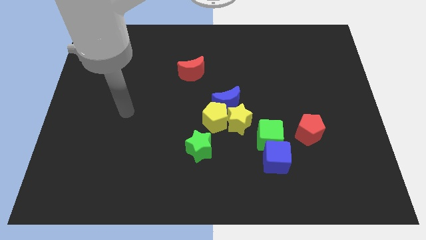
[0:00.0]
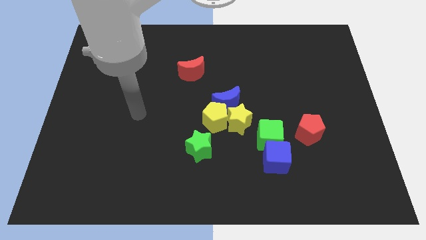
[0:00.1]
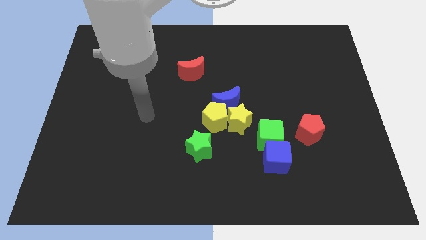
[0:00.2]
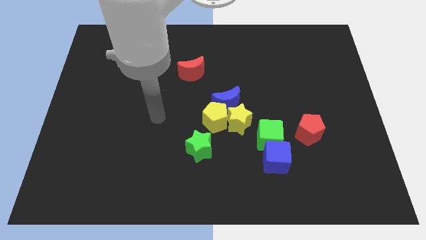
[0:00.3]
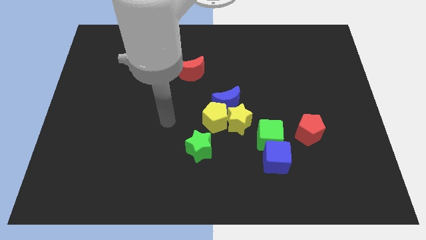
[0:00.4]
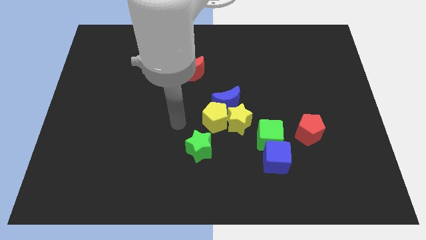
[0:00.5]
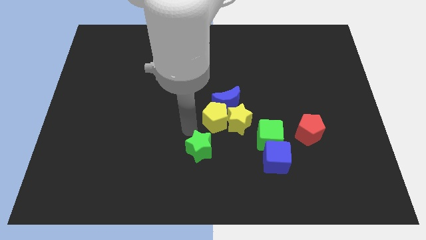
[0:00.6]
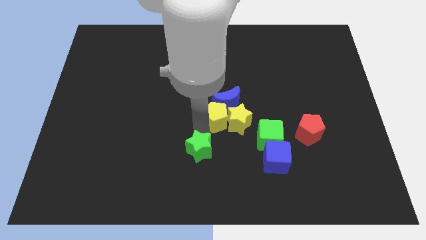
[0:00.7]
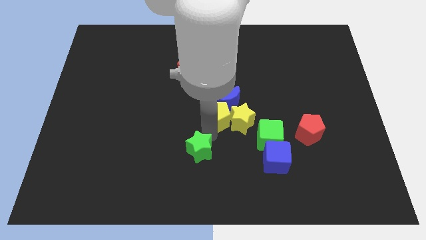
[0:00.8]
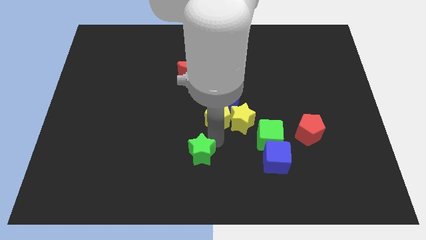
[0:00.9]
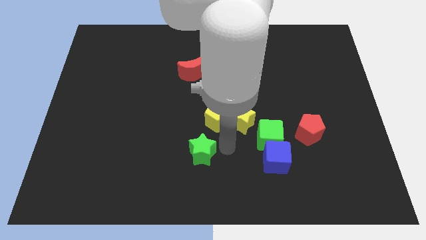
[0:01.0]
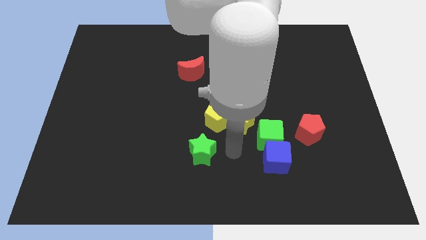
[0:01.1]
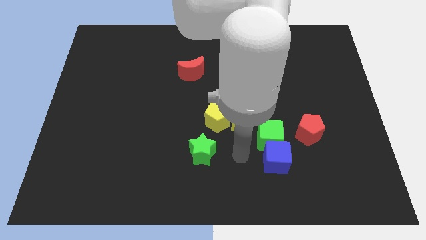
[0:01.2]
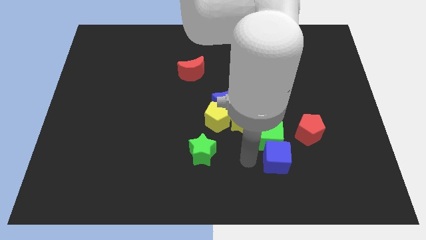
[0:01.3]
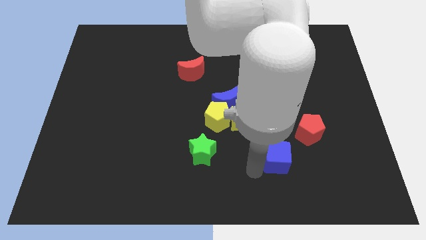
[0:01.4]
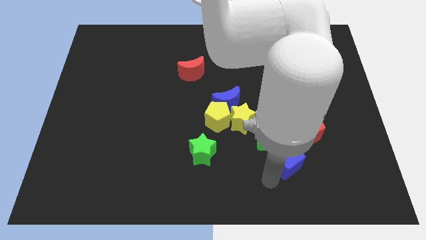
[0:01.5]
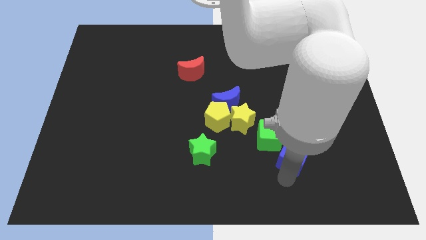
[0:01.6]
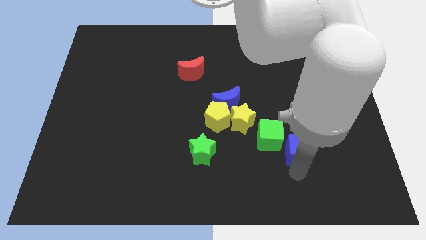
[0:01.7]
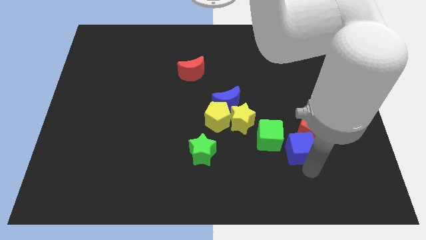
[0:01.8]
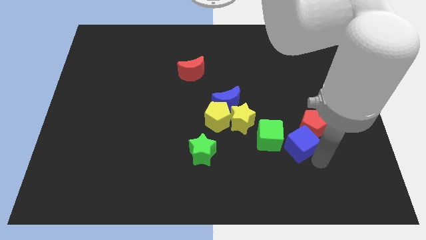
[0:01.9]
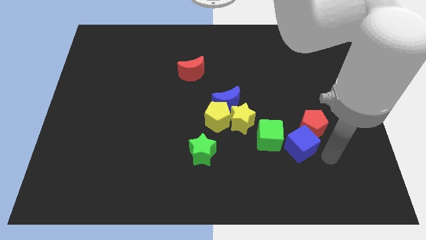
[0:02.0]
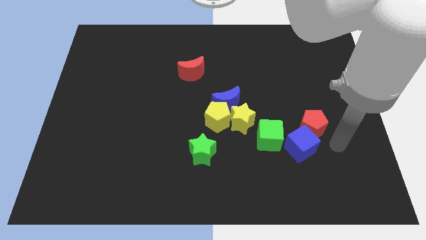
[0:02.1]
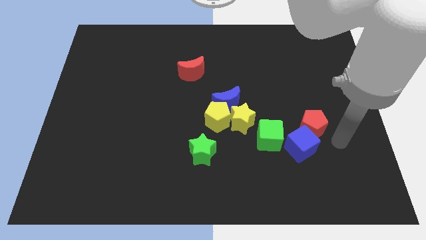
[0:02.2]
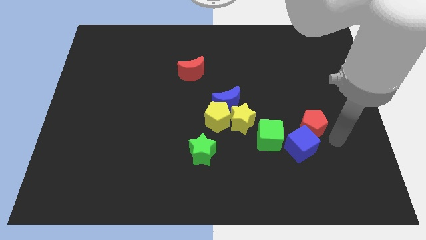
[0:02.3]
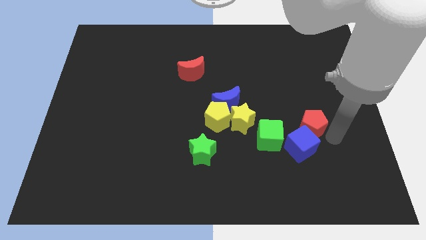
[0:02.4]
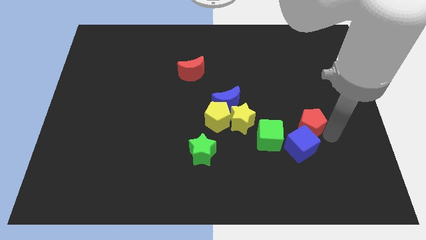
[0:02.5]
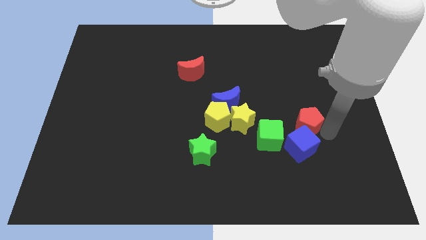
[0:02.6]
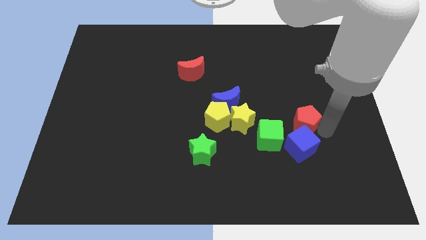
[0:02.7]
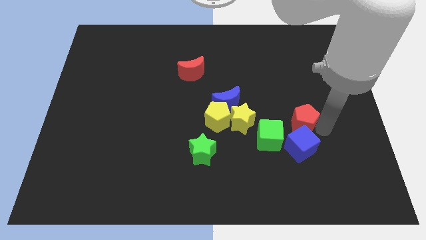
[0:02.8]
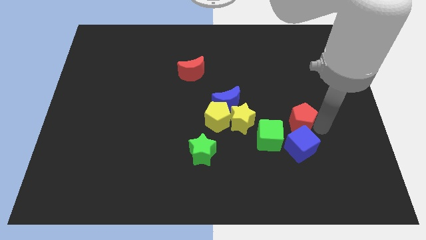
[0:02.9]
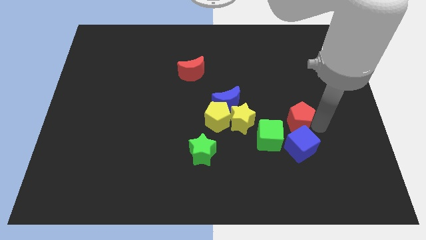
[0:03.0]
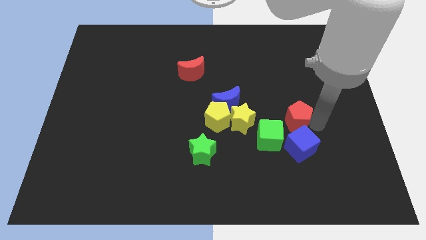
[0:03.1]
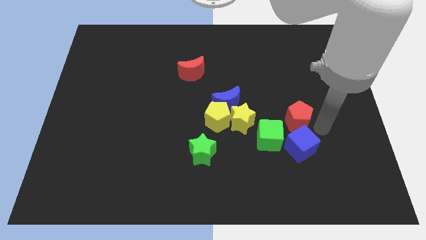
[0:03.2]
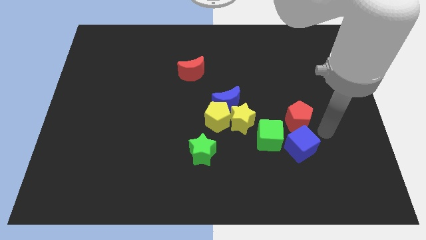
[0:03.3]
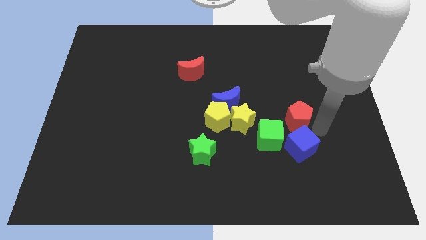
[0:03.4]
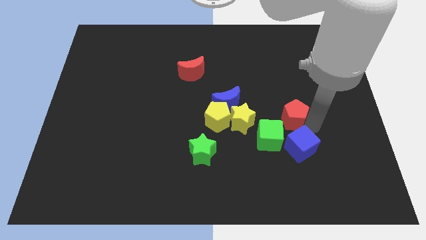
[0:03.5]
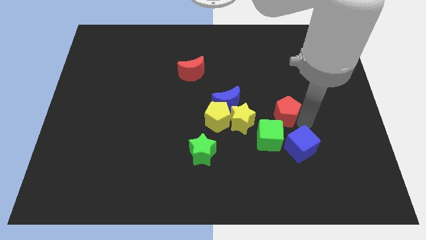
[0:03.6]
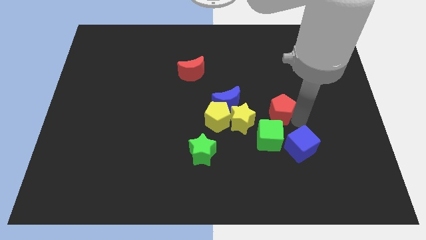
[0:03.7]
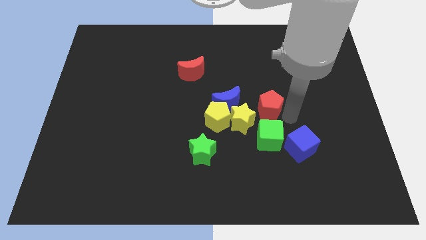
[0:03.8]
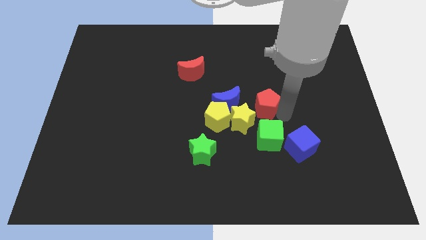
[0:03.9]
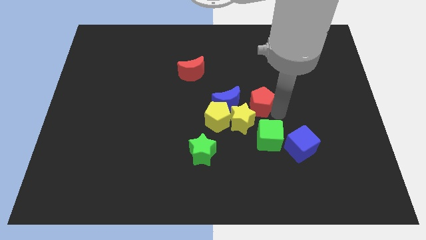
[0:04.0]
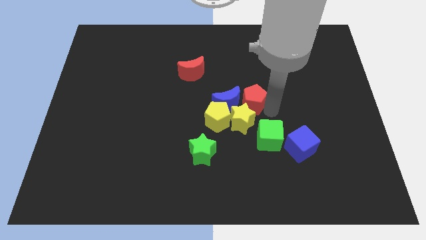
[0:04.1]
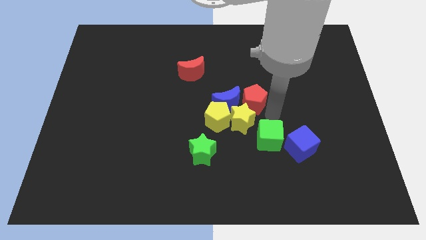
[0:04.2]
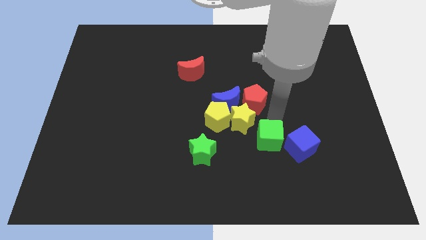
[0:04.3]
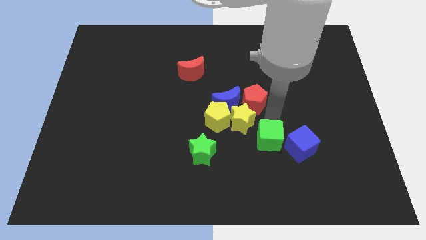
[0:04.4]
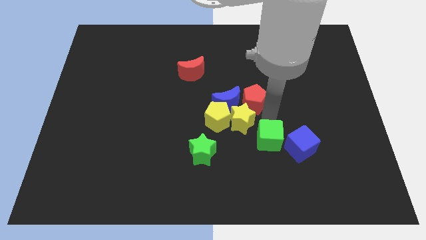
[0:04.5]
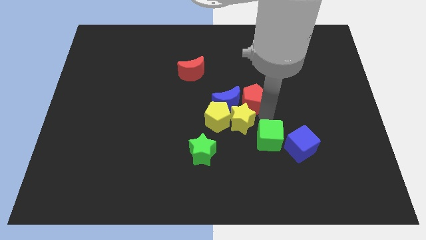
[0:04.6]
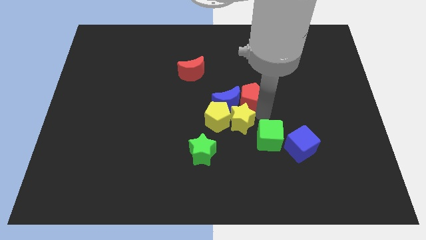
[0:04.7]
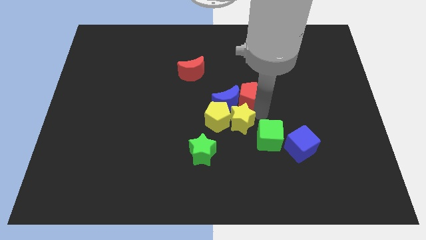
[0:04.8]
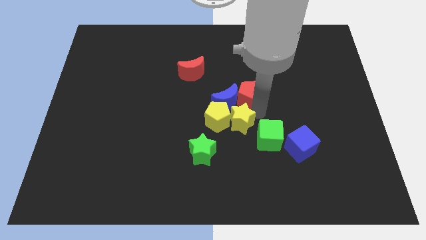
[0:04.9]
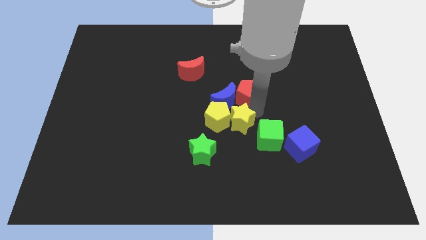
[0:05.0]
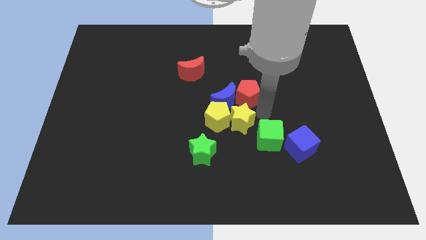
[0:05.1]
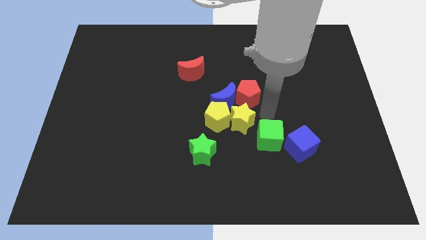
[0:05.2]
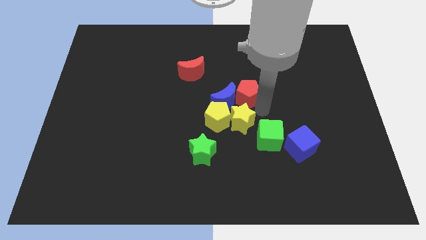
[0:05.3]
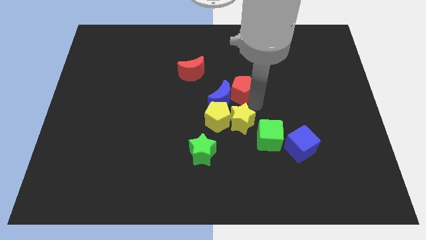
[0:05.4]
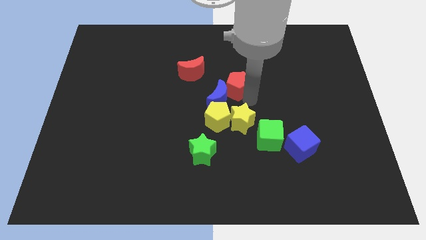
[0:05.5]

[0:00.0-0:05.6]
move the red pentagon up and then to the left

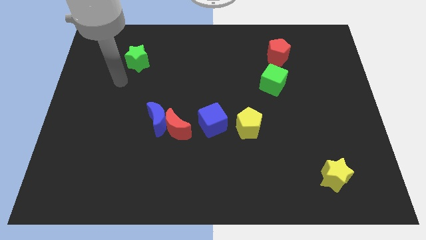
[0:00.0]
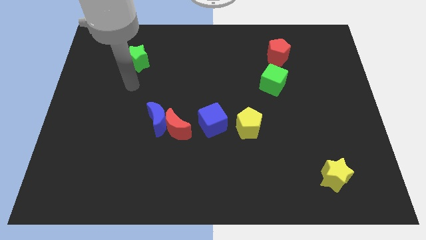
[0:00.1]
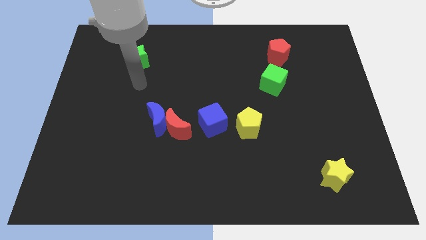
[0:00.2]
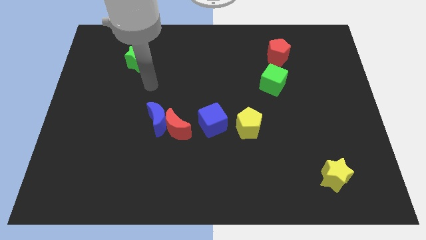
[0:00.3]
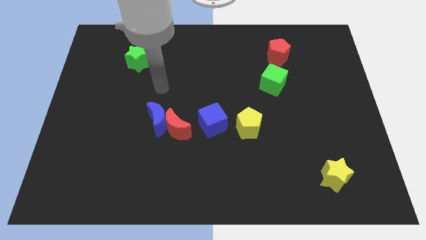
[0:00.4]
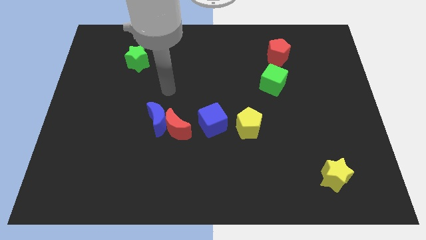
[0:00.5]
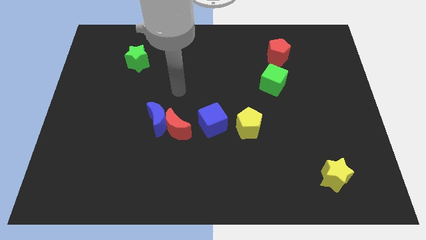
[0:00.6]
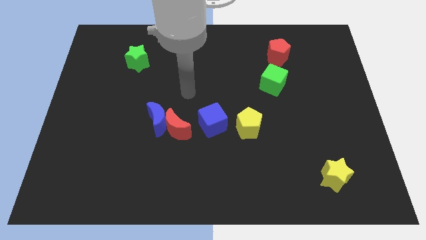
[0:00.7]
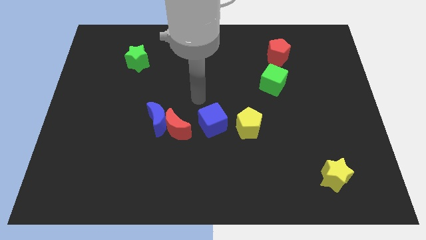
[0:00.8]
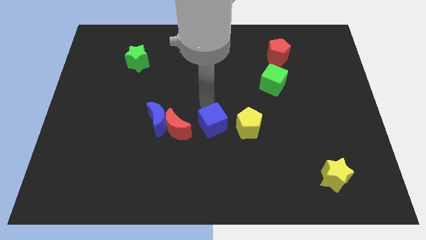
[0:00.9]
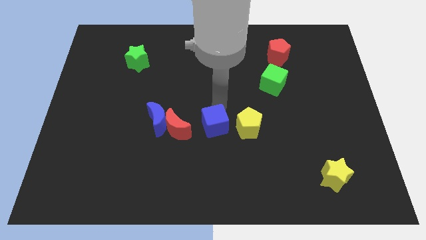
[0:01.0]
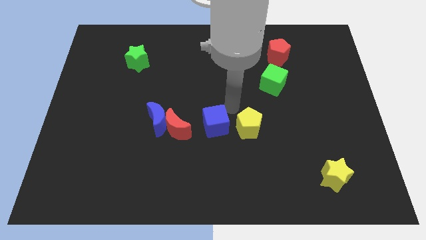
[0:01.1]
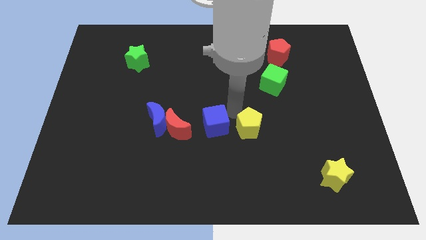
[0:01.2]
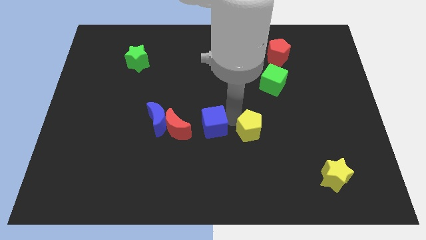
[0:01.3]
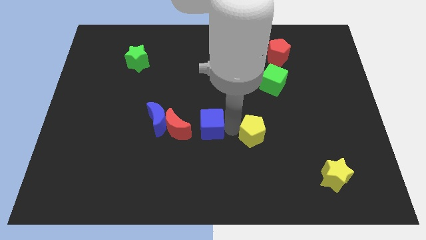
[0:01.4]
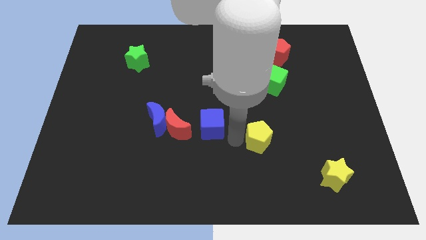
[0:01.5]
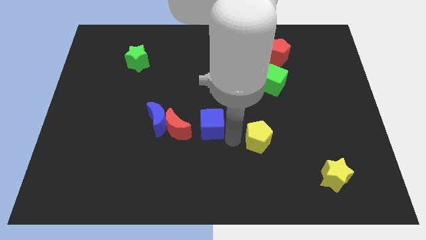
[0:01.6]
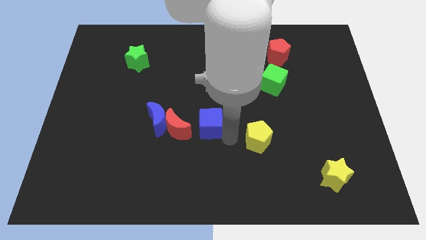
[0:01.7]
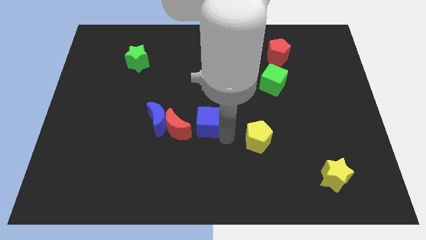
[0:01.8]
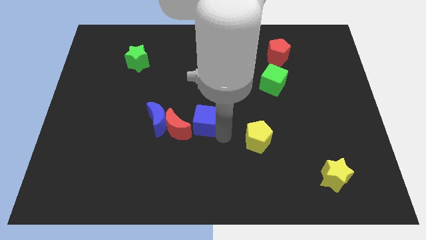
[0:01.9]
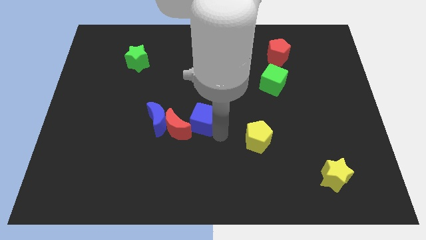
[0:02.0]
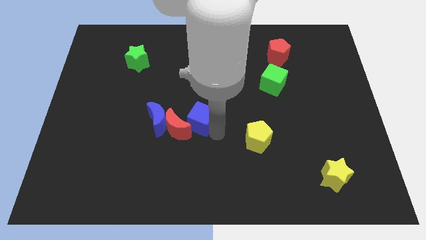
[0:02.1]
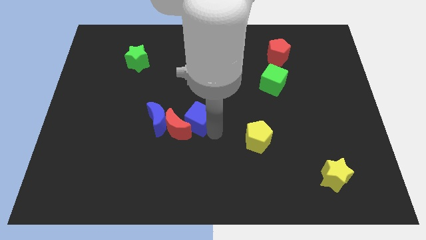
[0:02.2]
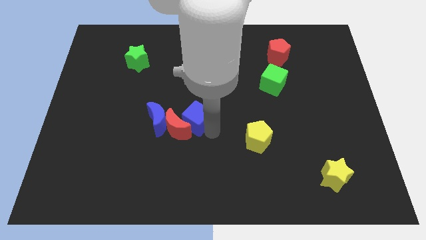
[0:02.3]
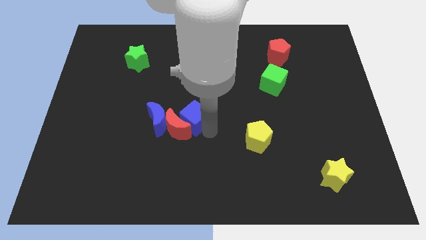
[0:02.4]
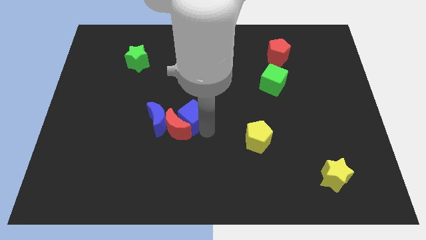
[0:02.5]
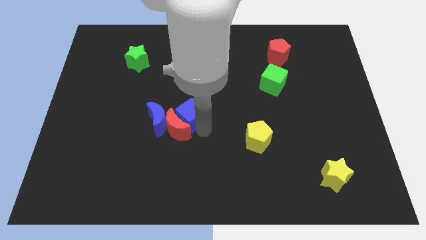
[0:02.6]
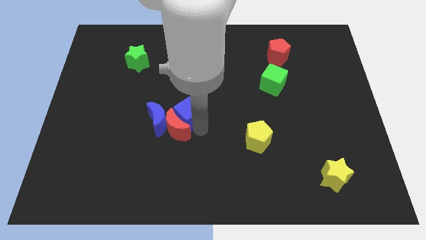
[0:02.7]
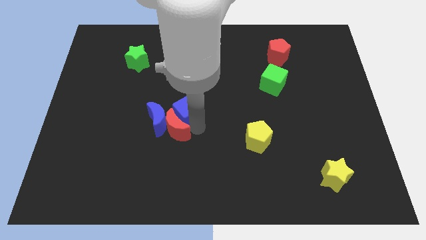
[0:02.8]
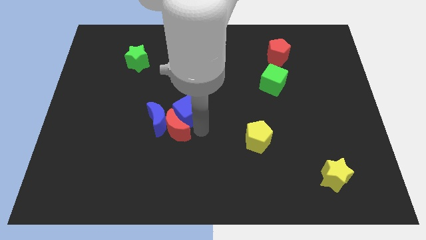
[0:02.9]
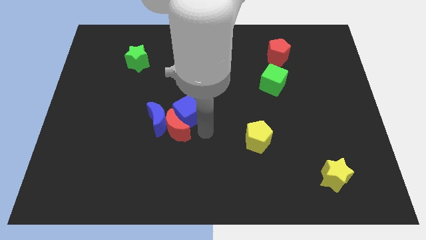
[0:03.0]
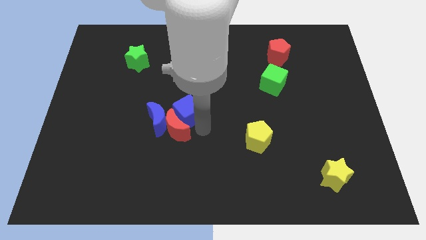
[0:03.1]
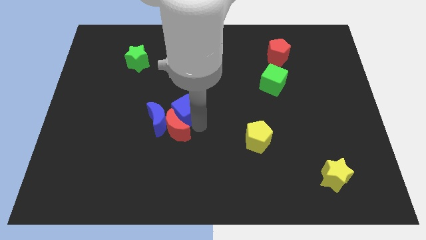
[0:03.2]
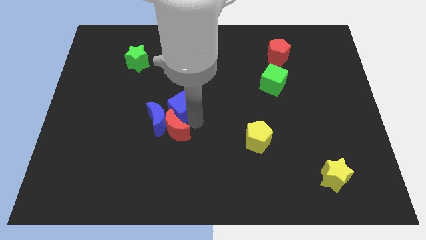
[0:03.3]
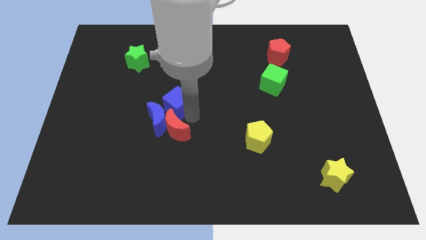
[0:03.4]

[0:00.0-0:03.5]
slightly move the blue cube left
